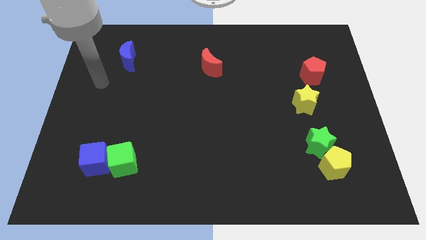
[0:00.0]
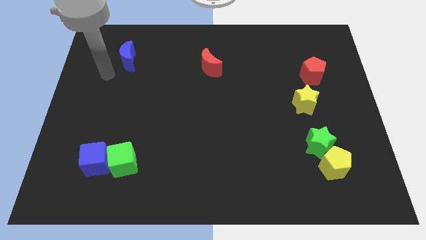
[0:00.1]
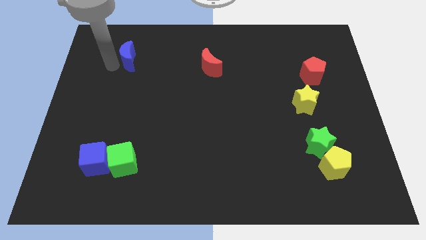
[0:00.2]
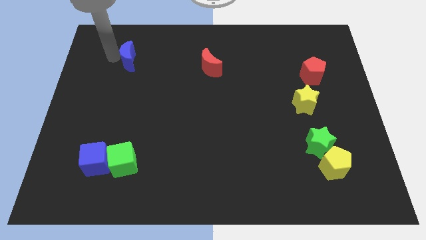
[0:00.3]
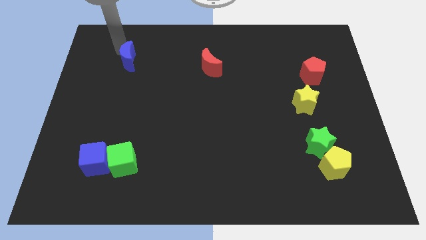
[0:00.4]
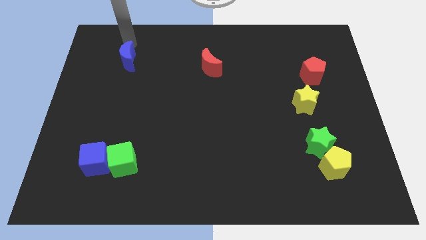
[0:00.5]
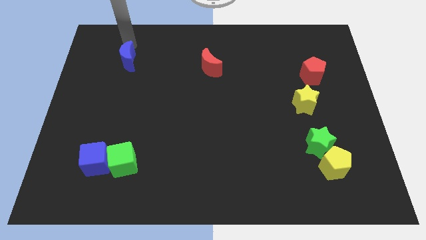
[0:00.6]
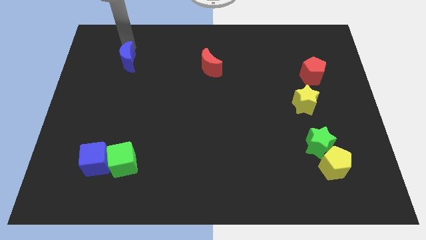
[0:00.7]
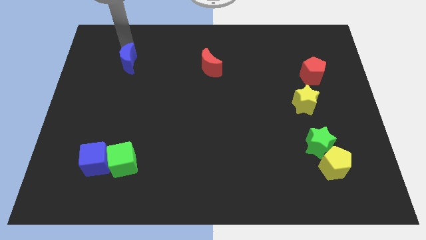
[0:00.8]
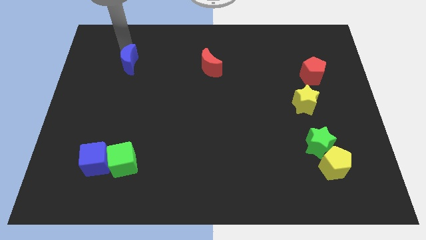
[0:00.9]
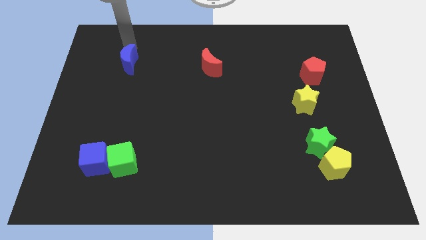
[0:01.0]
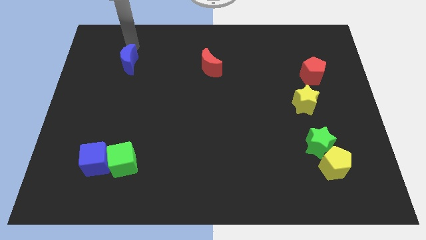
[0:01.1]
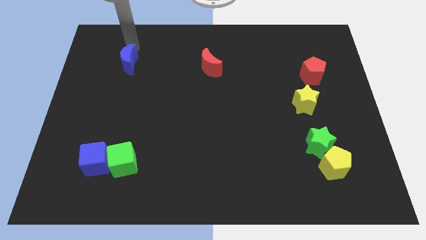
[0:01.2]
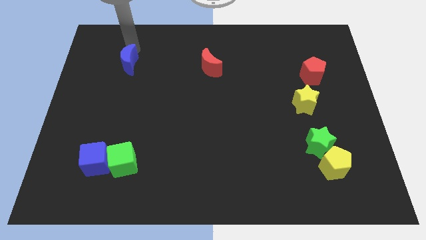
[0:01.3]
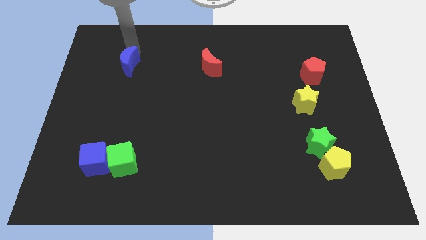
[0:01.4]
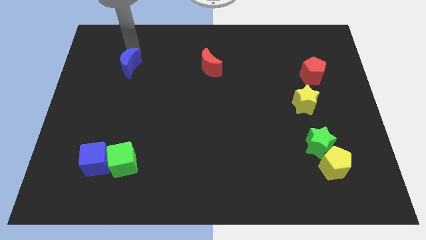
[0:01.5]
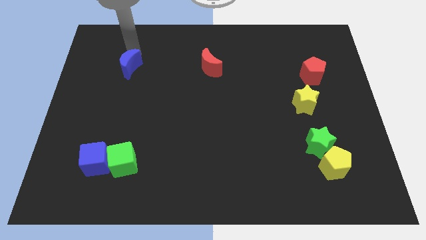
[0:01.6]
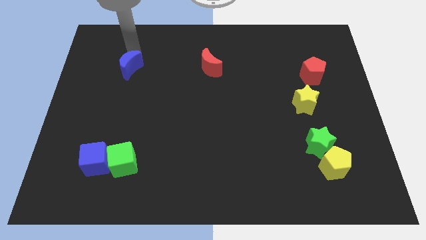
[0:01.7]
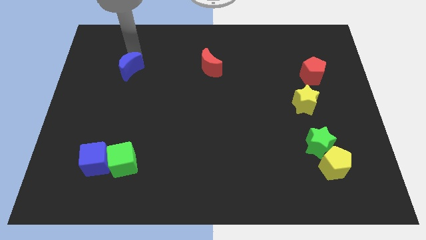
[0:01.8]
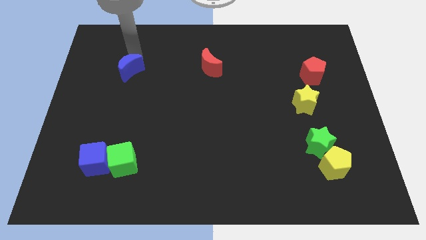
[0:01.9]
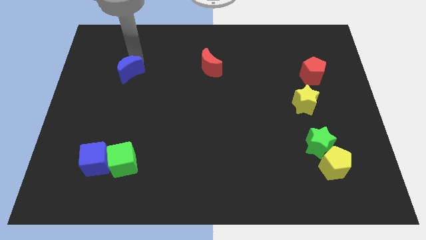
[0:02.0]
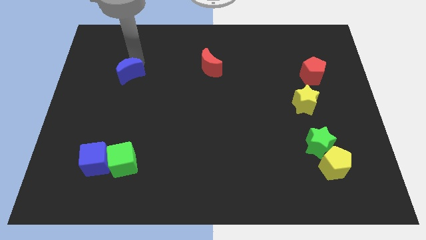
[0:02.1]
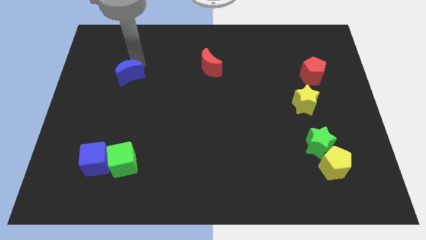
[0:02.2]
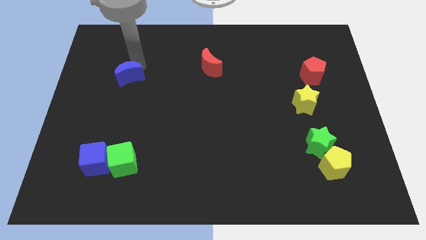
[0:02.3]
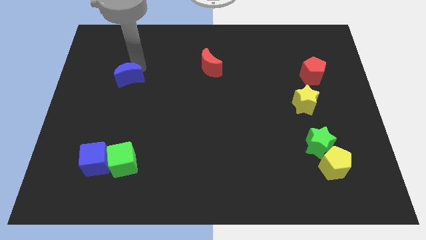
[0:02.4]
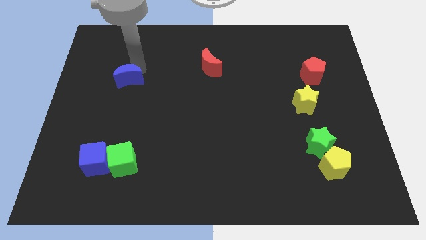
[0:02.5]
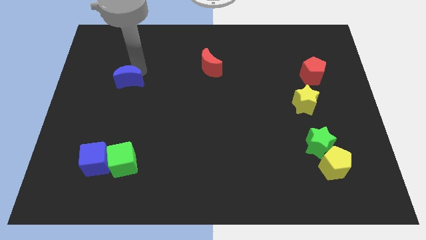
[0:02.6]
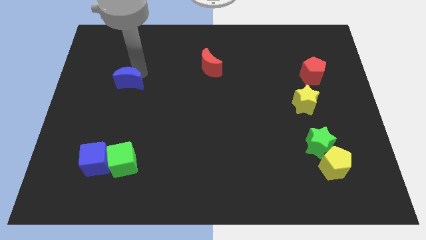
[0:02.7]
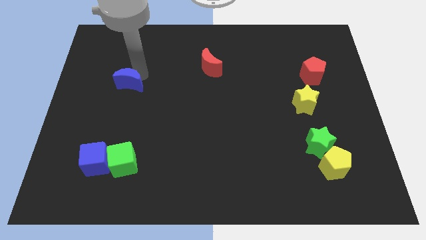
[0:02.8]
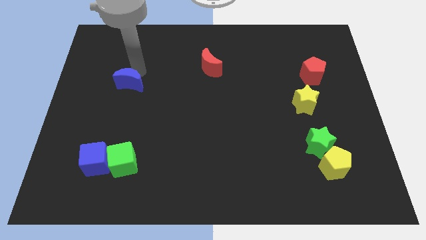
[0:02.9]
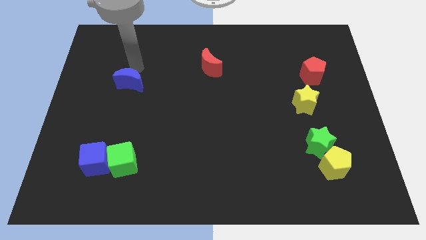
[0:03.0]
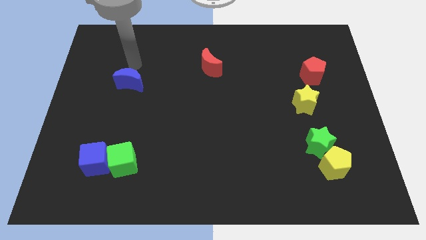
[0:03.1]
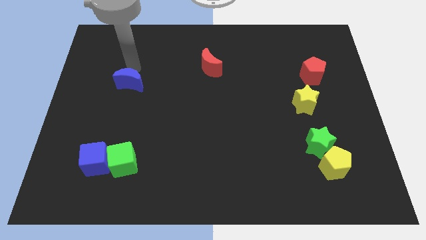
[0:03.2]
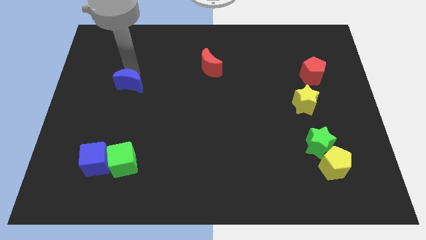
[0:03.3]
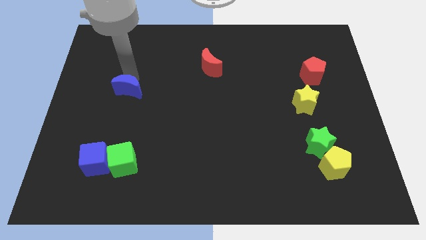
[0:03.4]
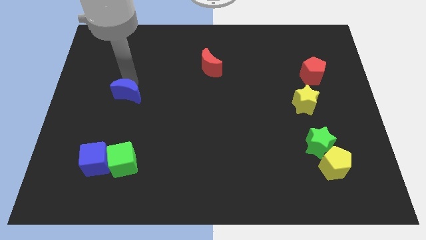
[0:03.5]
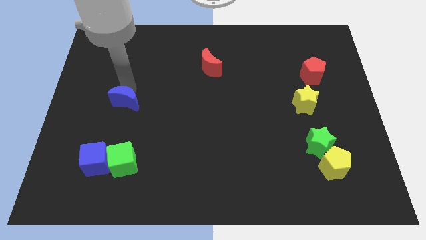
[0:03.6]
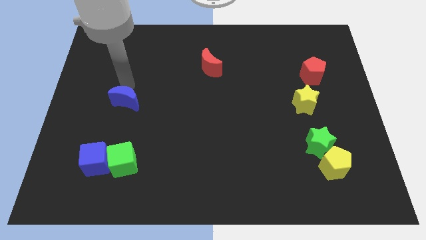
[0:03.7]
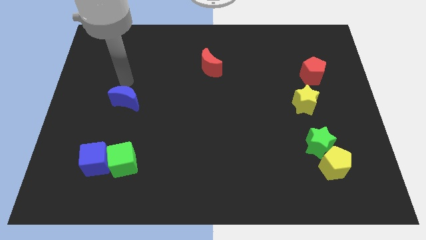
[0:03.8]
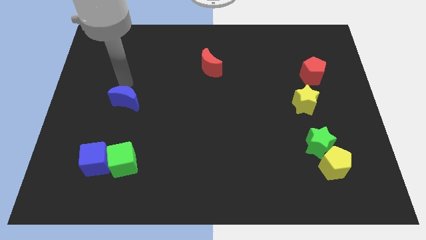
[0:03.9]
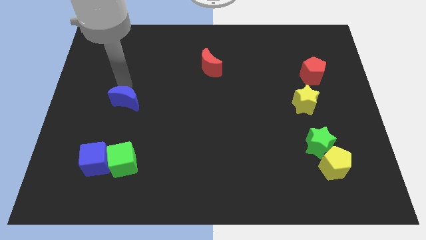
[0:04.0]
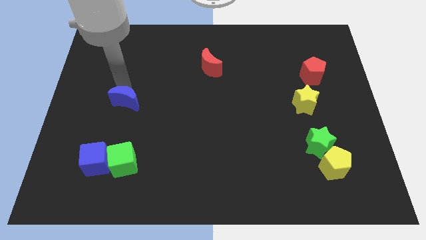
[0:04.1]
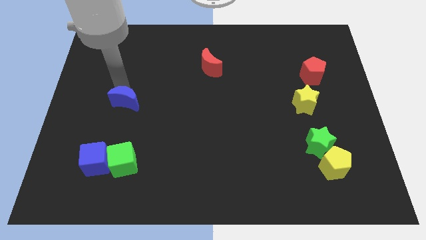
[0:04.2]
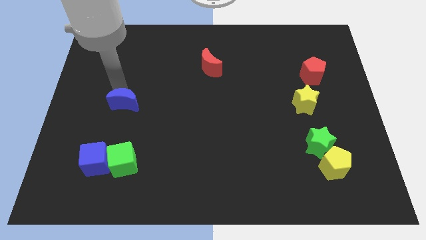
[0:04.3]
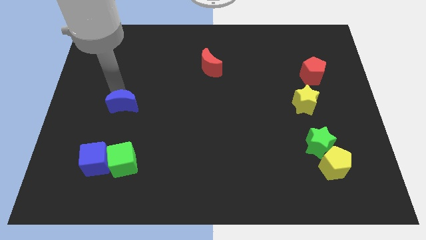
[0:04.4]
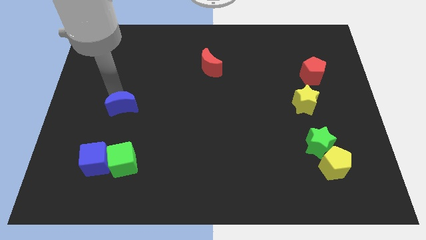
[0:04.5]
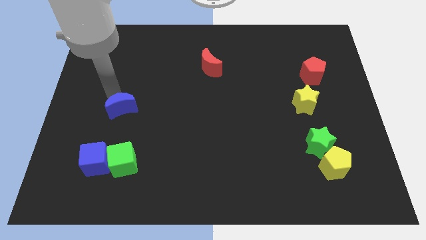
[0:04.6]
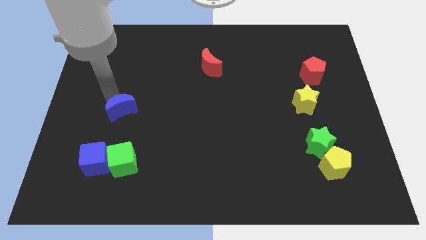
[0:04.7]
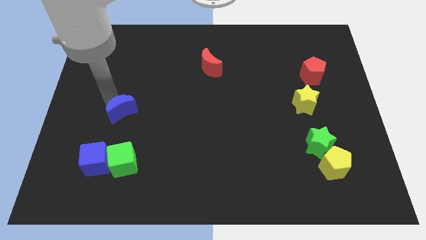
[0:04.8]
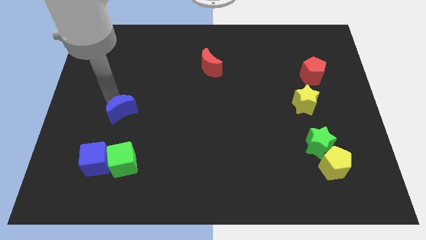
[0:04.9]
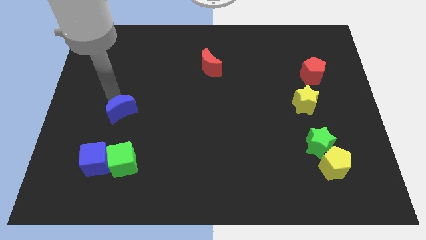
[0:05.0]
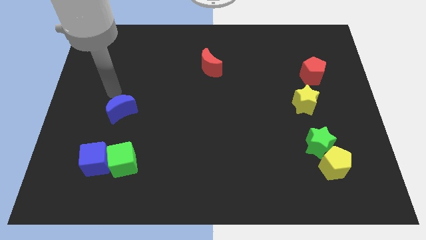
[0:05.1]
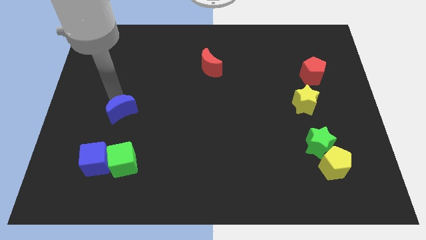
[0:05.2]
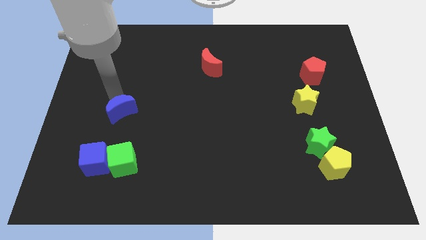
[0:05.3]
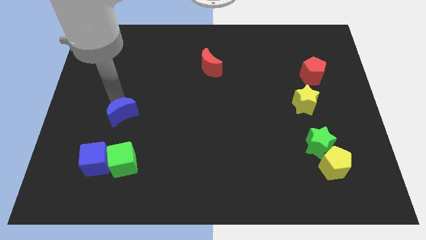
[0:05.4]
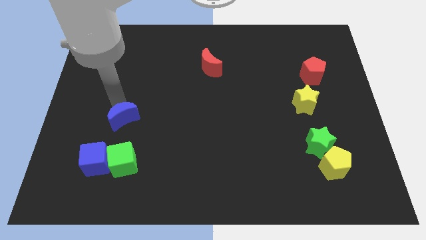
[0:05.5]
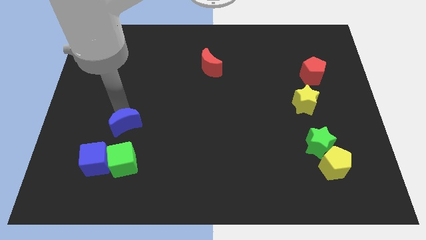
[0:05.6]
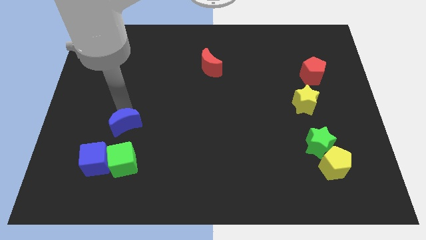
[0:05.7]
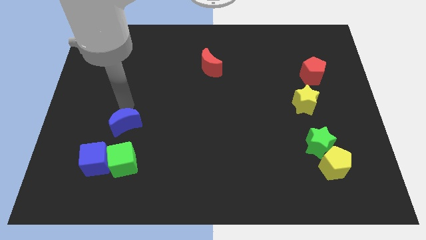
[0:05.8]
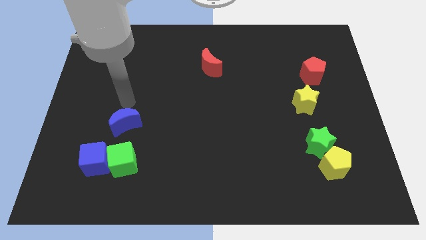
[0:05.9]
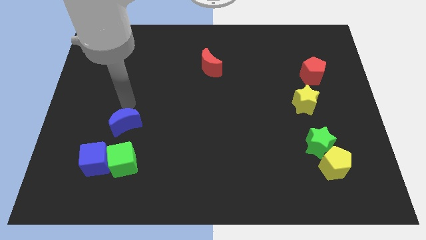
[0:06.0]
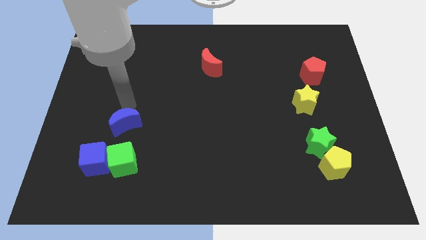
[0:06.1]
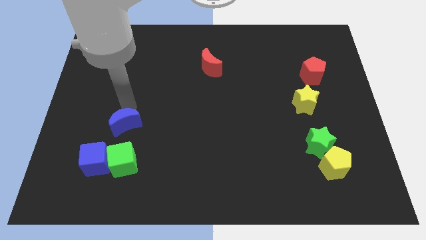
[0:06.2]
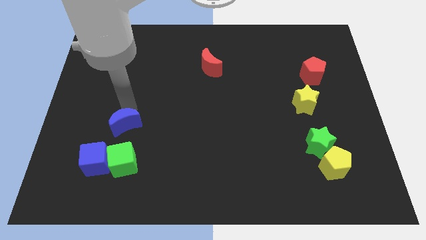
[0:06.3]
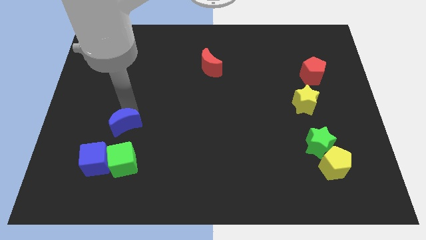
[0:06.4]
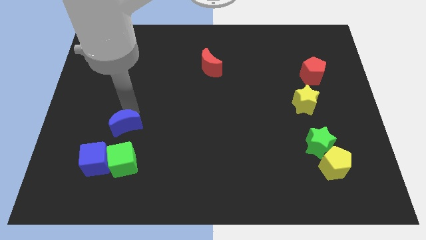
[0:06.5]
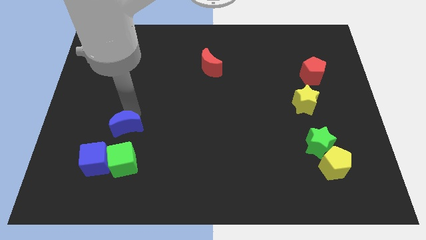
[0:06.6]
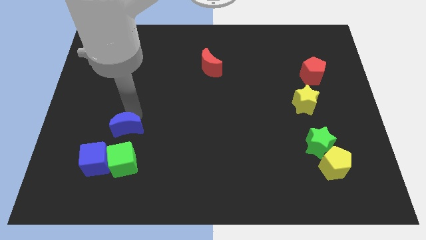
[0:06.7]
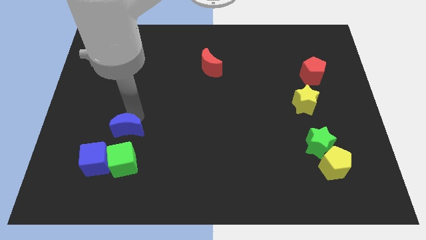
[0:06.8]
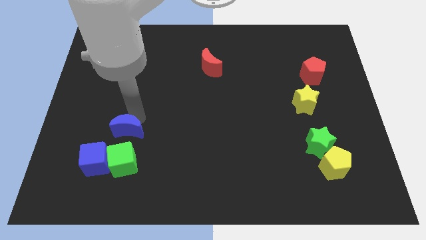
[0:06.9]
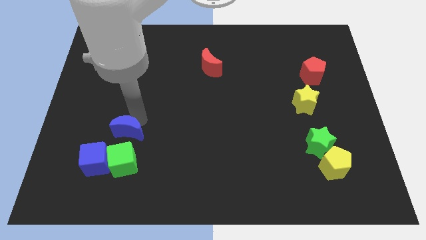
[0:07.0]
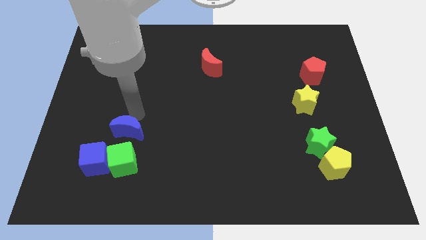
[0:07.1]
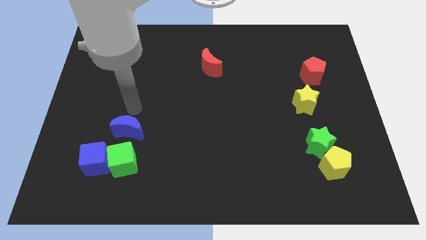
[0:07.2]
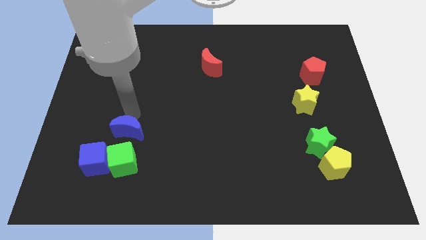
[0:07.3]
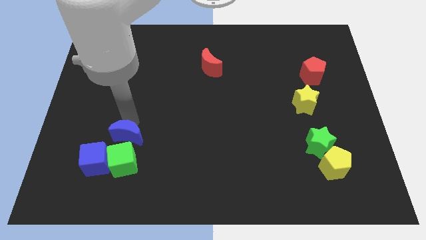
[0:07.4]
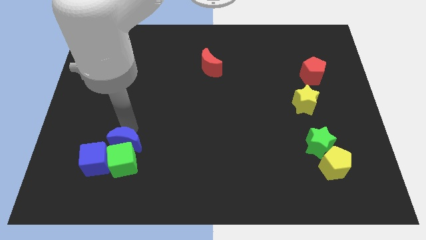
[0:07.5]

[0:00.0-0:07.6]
push the blue moon close to the green cube
